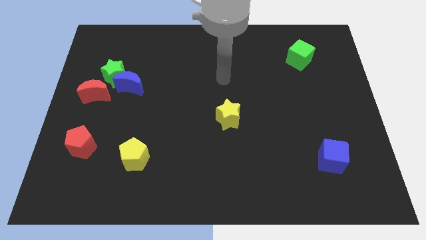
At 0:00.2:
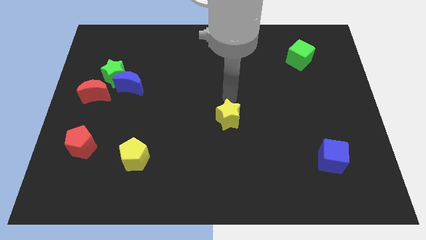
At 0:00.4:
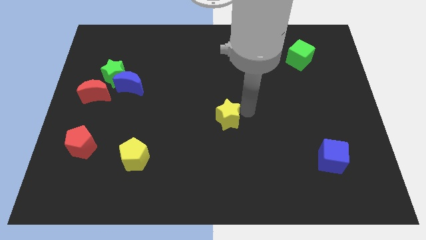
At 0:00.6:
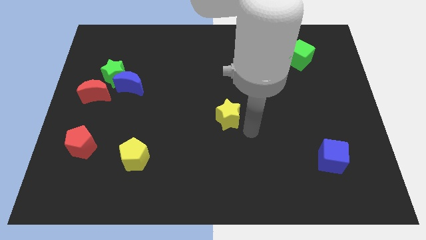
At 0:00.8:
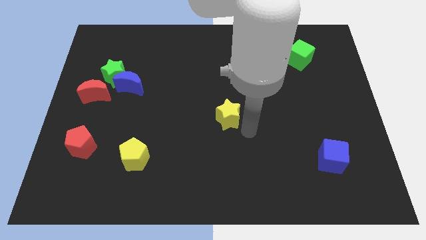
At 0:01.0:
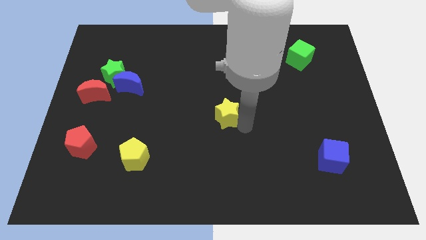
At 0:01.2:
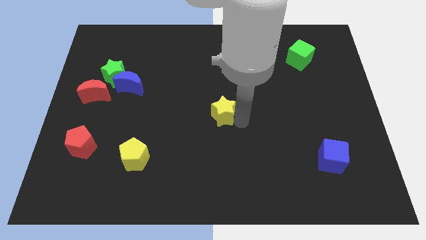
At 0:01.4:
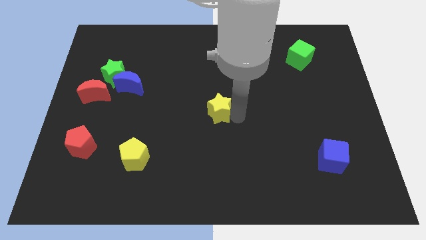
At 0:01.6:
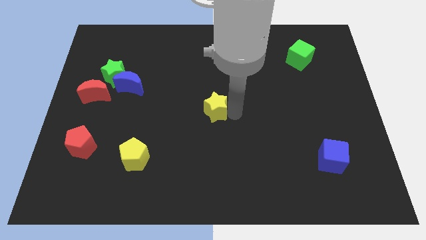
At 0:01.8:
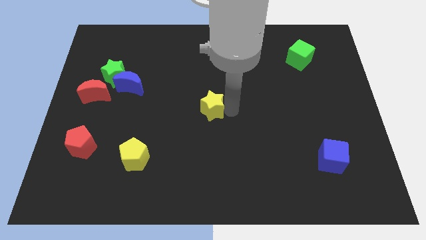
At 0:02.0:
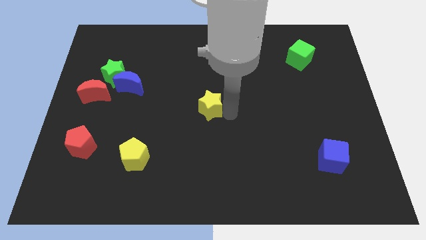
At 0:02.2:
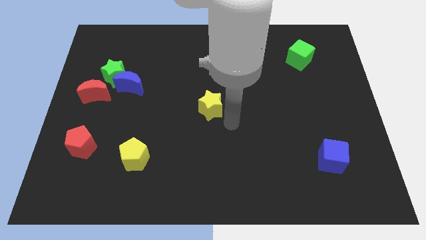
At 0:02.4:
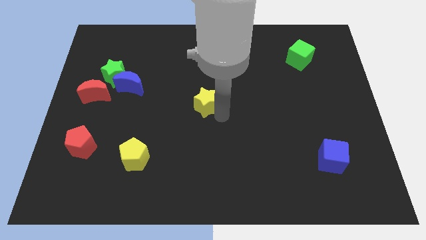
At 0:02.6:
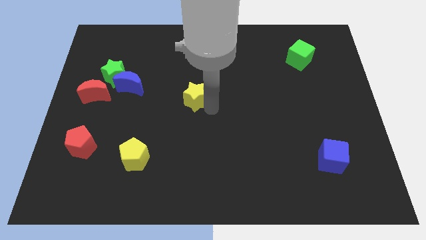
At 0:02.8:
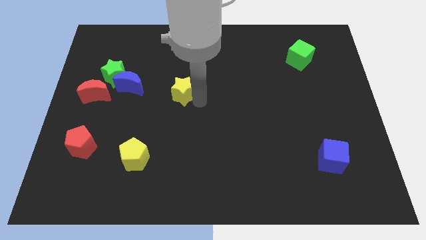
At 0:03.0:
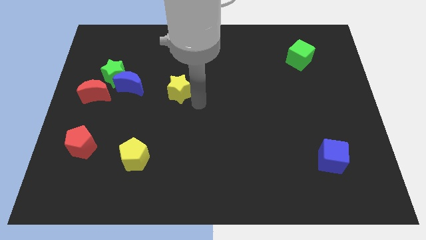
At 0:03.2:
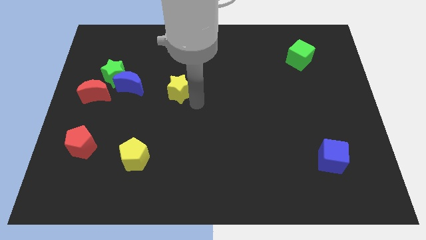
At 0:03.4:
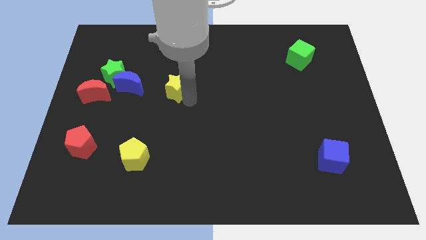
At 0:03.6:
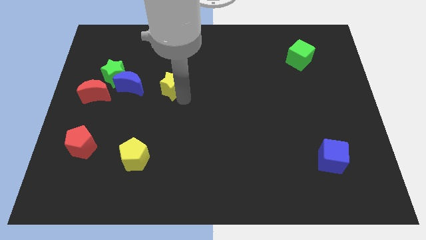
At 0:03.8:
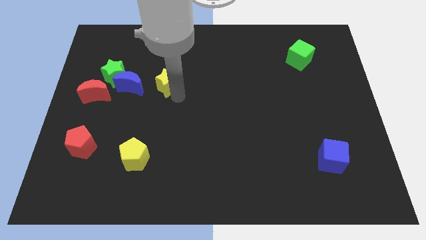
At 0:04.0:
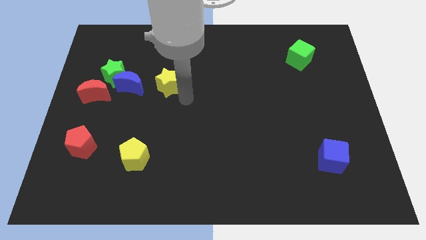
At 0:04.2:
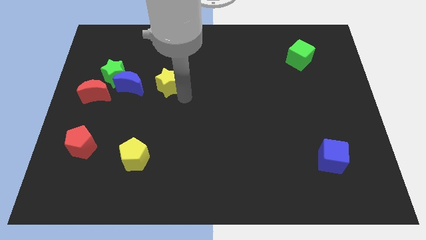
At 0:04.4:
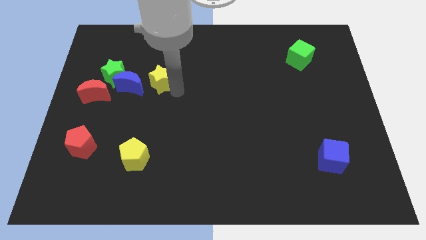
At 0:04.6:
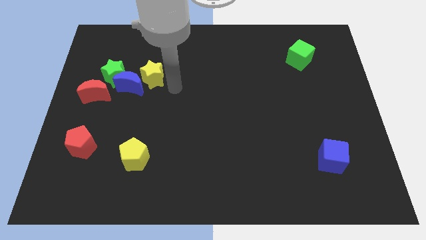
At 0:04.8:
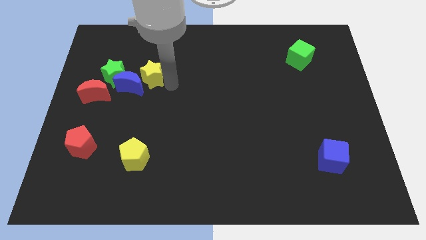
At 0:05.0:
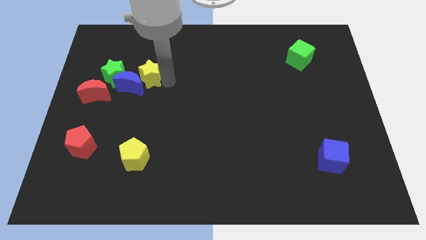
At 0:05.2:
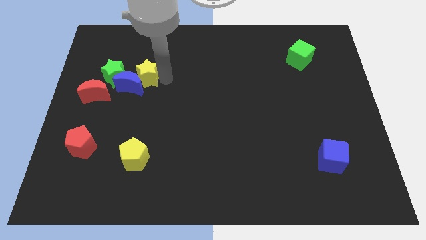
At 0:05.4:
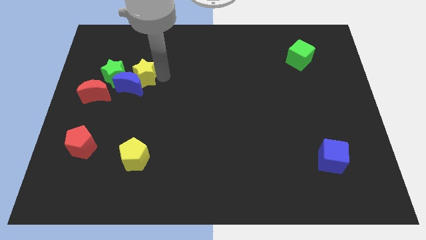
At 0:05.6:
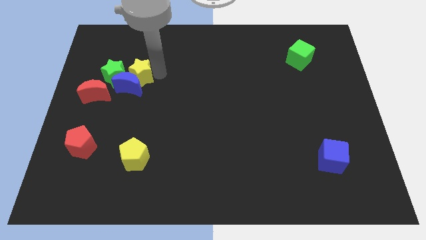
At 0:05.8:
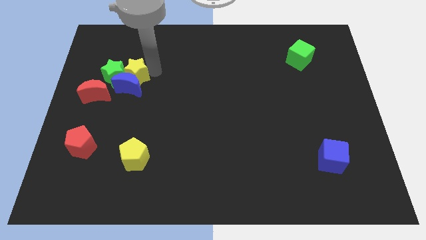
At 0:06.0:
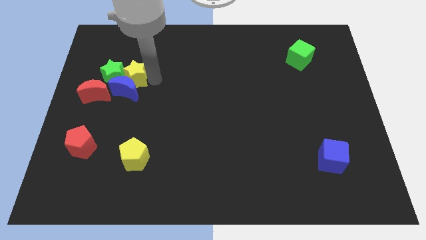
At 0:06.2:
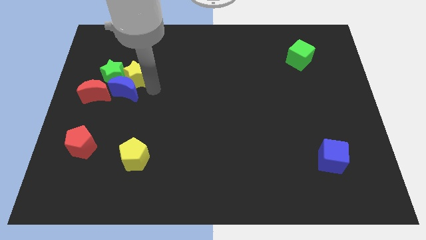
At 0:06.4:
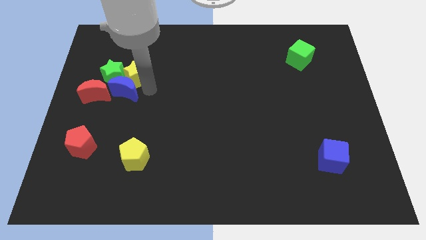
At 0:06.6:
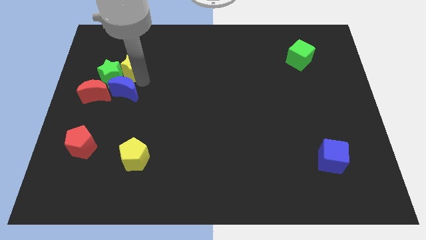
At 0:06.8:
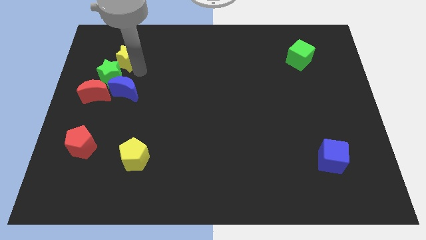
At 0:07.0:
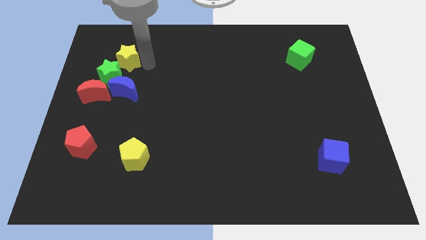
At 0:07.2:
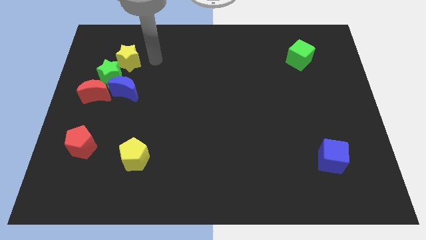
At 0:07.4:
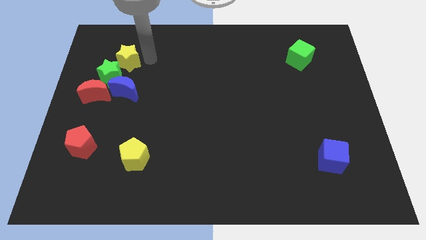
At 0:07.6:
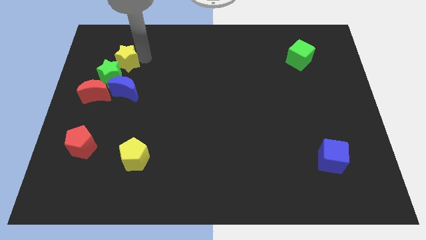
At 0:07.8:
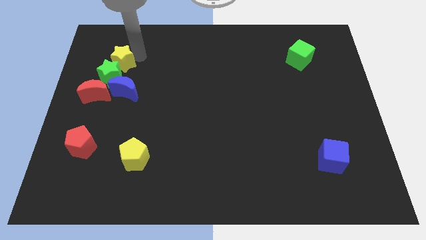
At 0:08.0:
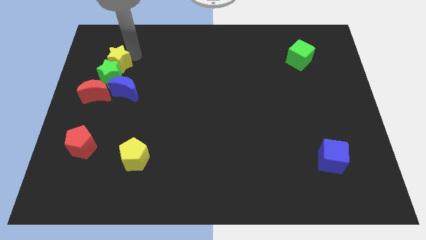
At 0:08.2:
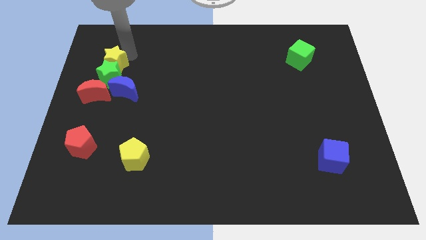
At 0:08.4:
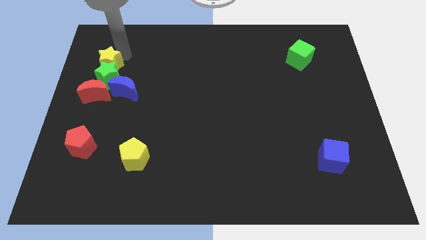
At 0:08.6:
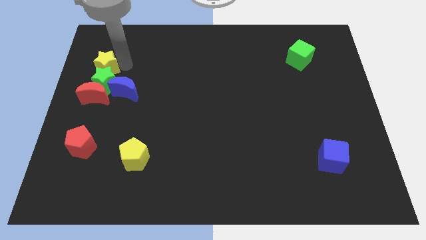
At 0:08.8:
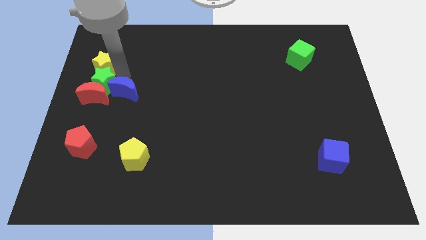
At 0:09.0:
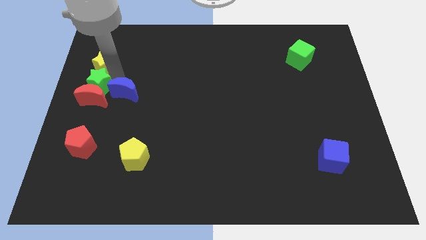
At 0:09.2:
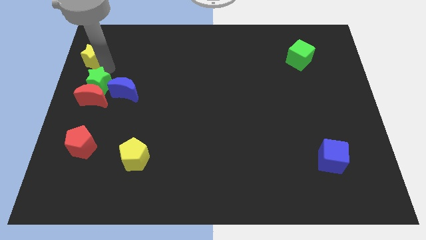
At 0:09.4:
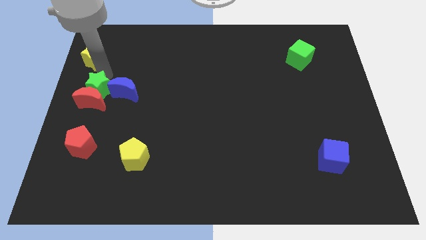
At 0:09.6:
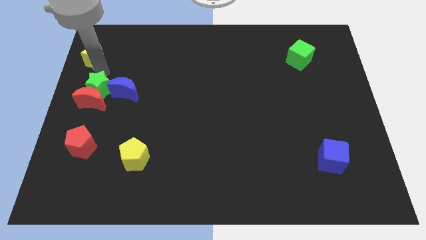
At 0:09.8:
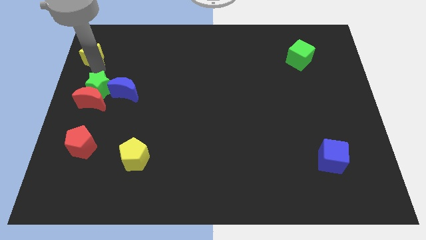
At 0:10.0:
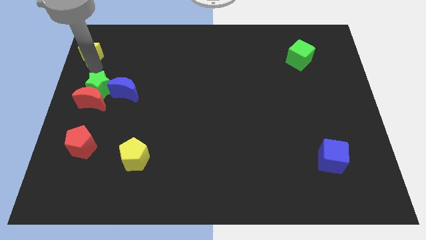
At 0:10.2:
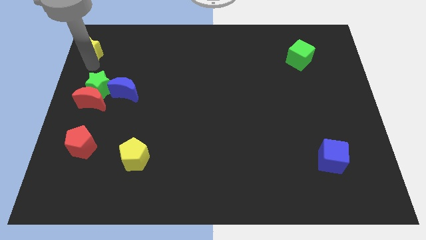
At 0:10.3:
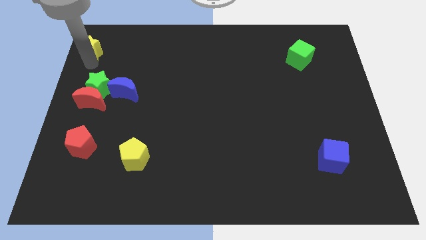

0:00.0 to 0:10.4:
move the yellow star to the upper left corner

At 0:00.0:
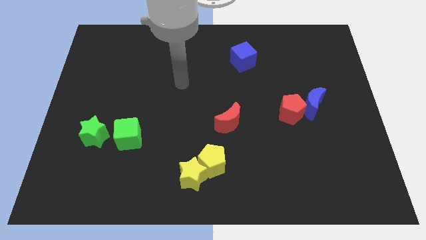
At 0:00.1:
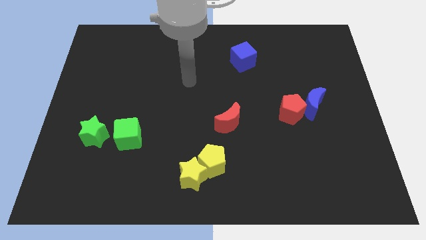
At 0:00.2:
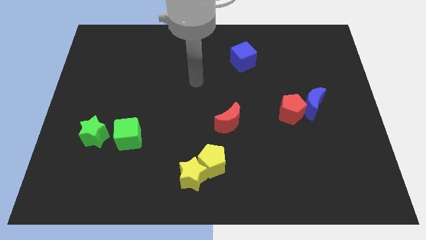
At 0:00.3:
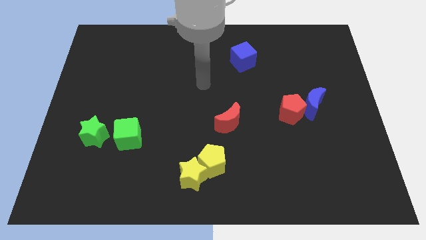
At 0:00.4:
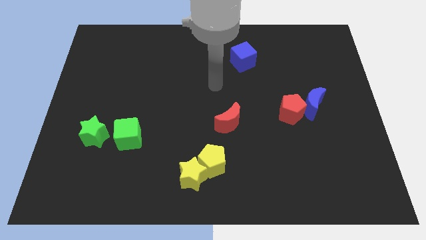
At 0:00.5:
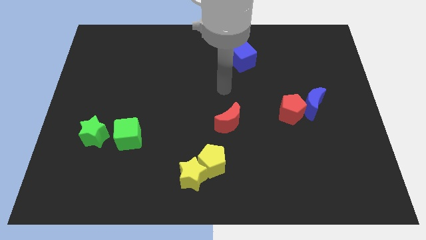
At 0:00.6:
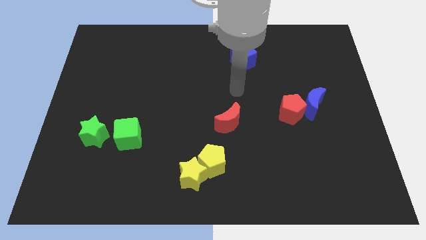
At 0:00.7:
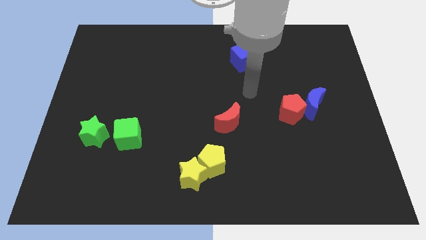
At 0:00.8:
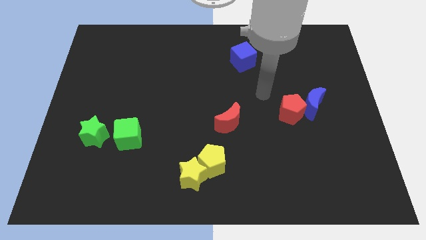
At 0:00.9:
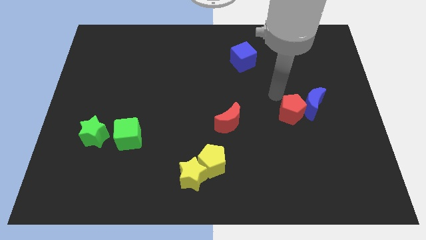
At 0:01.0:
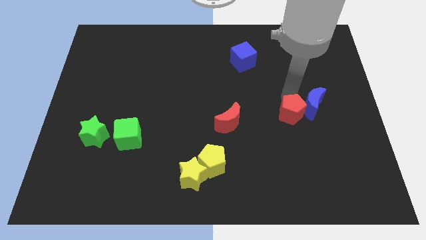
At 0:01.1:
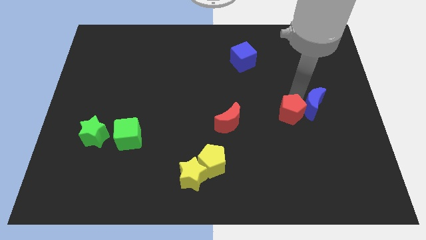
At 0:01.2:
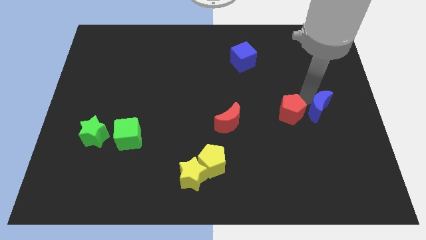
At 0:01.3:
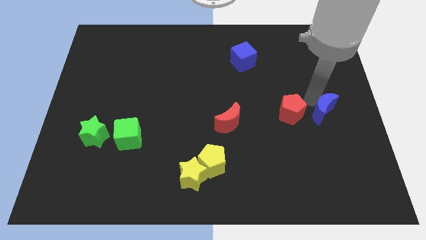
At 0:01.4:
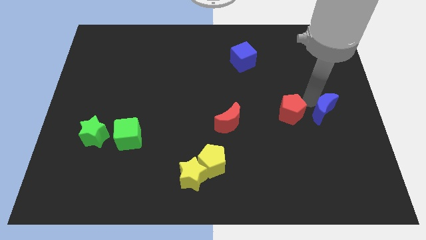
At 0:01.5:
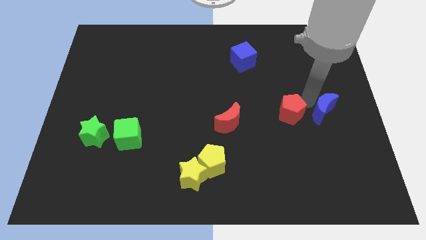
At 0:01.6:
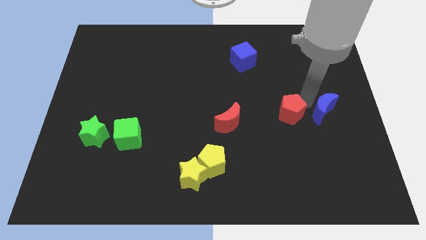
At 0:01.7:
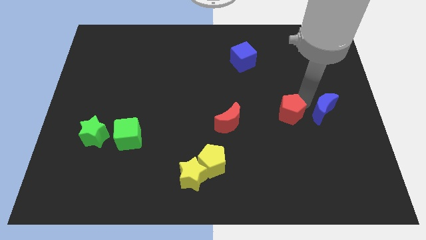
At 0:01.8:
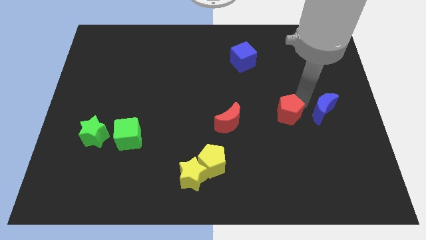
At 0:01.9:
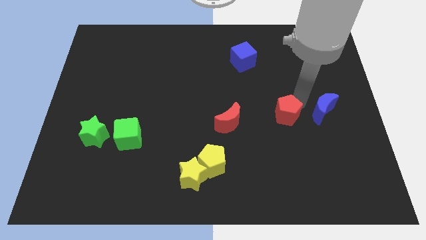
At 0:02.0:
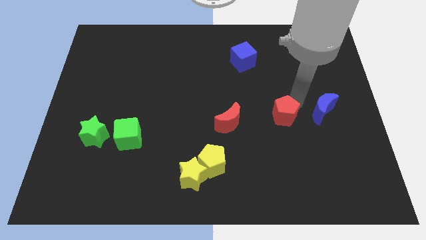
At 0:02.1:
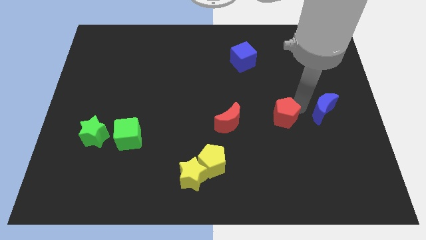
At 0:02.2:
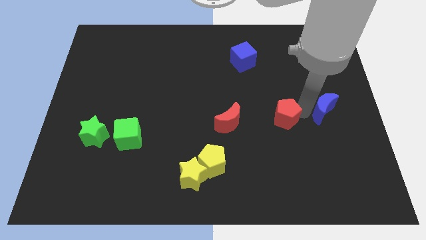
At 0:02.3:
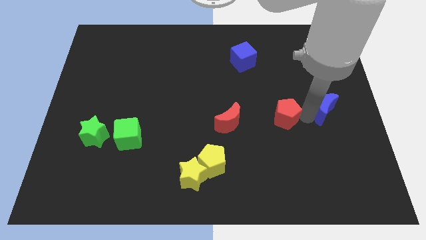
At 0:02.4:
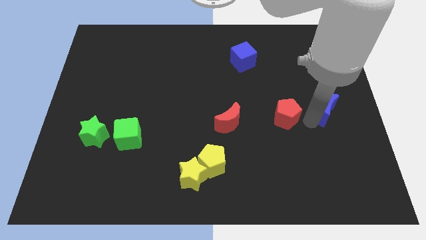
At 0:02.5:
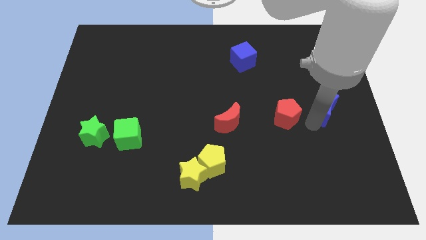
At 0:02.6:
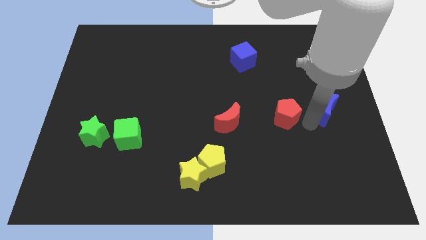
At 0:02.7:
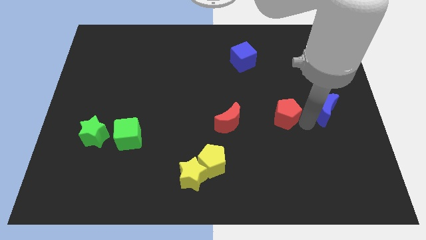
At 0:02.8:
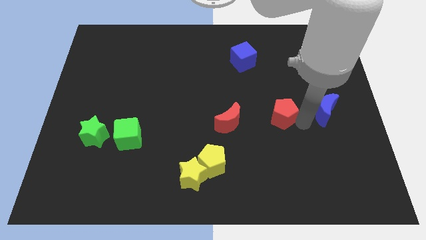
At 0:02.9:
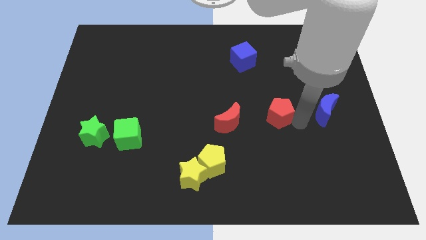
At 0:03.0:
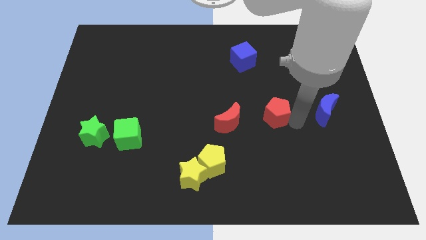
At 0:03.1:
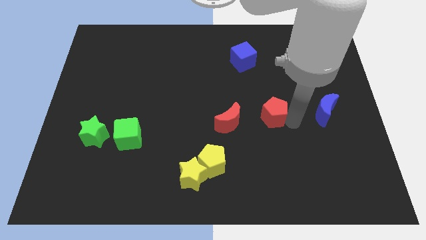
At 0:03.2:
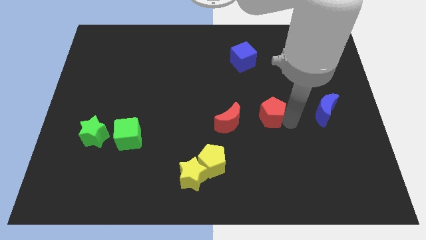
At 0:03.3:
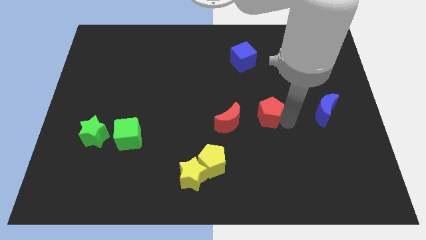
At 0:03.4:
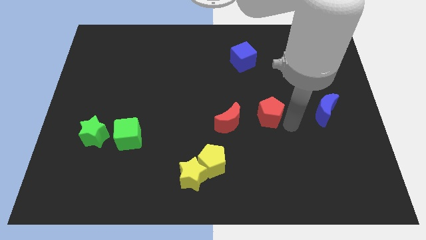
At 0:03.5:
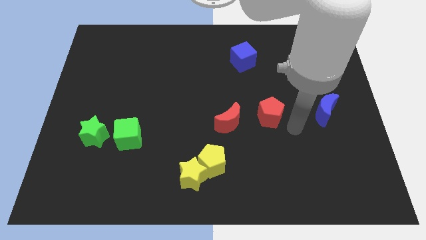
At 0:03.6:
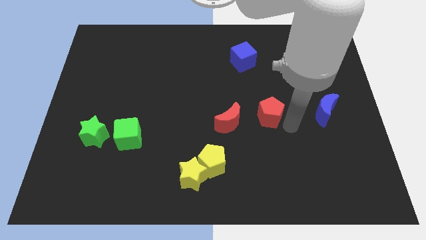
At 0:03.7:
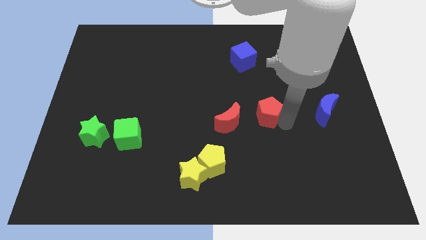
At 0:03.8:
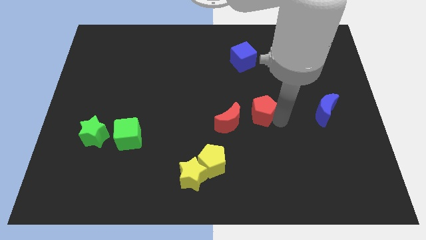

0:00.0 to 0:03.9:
move the red pentagon to the middle
